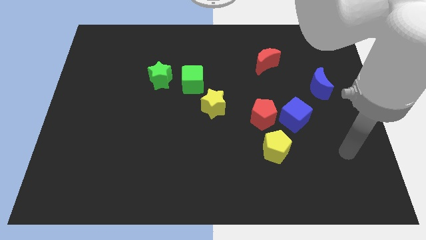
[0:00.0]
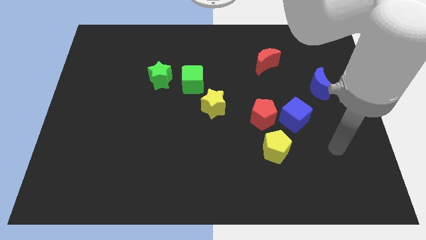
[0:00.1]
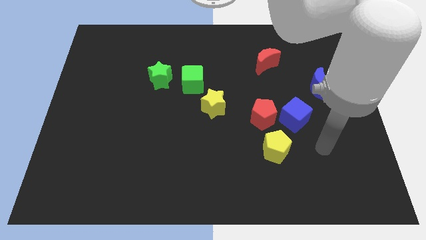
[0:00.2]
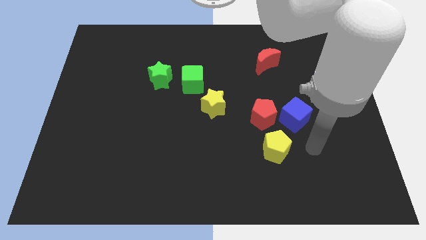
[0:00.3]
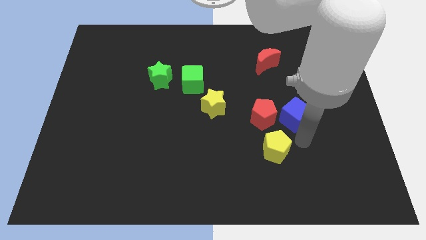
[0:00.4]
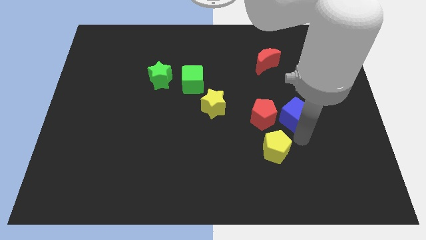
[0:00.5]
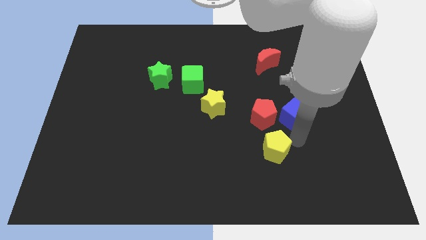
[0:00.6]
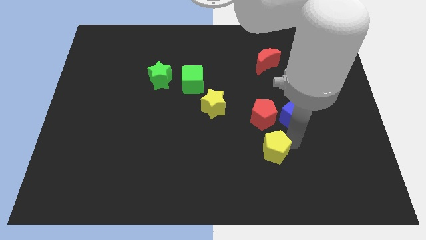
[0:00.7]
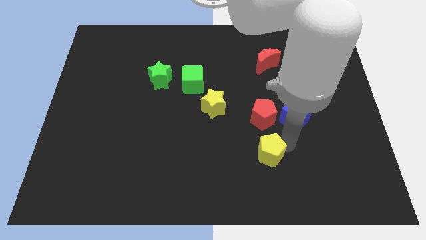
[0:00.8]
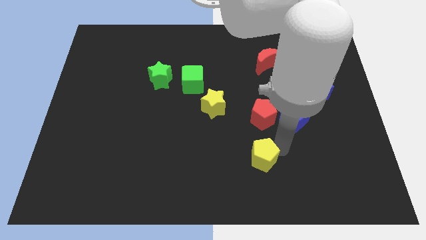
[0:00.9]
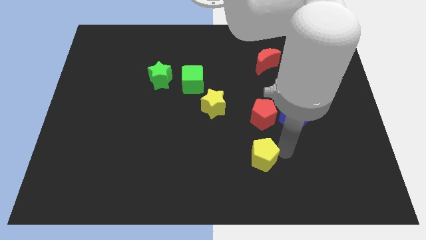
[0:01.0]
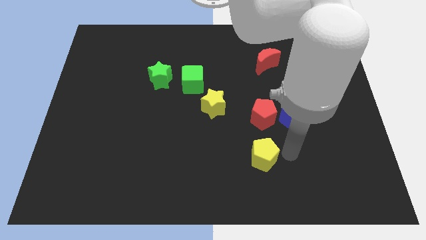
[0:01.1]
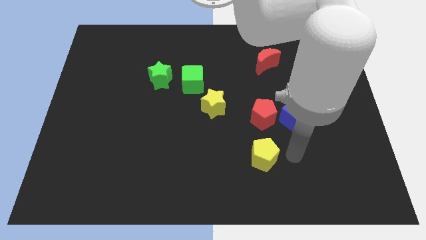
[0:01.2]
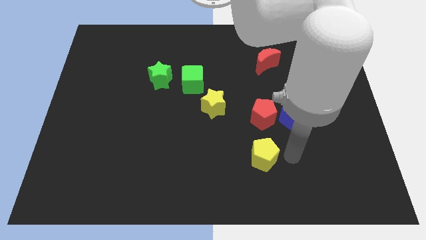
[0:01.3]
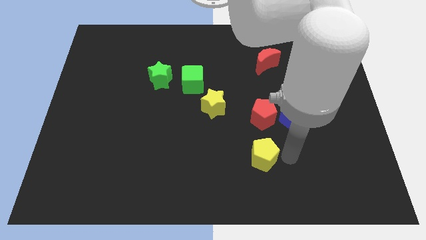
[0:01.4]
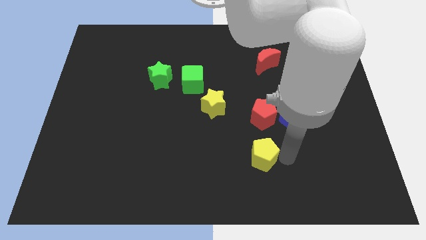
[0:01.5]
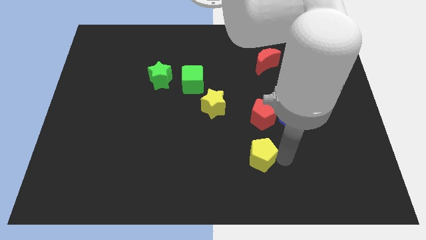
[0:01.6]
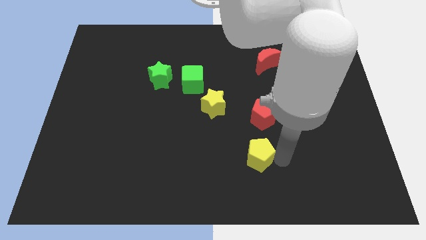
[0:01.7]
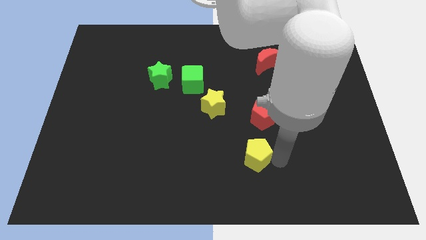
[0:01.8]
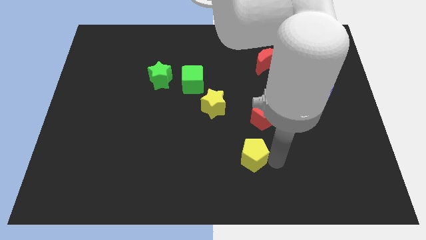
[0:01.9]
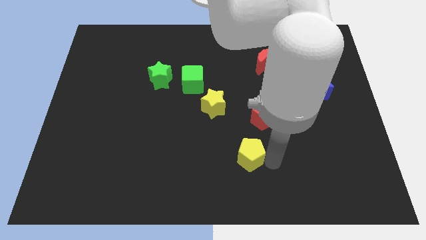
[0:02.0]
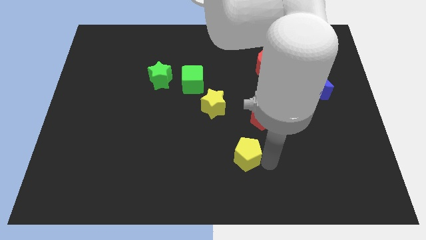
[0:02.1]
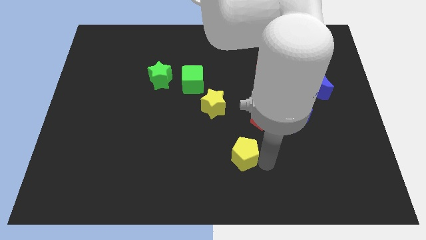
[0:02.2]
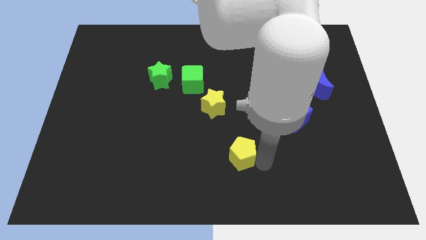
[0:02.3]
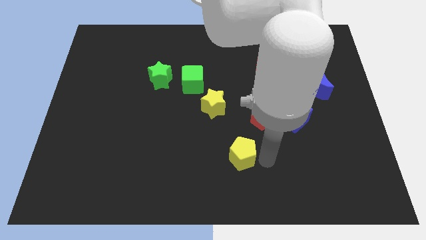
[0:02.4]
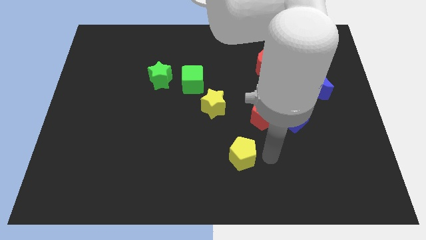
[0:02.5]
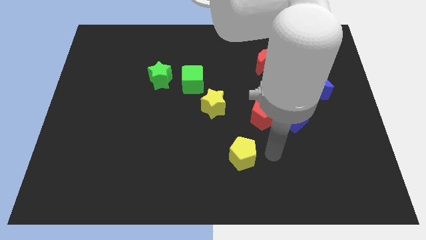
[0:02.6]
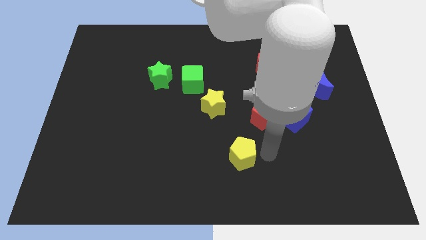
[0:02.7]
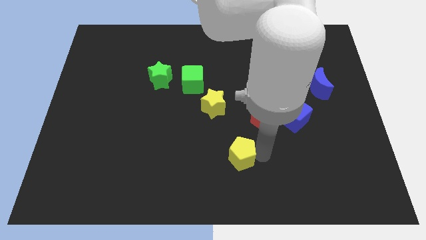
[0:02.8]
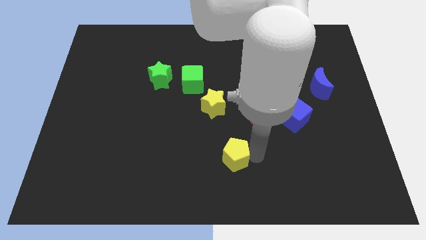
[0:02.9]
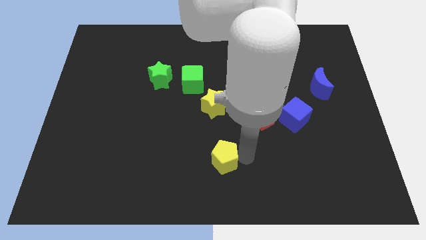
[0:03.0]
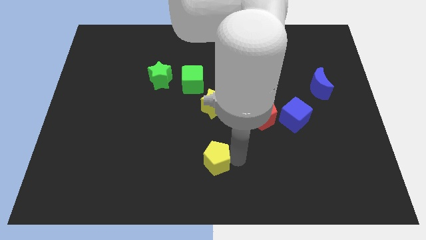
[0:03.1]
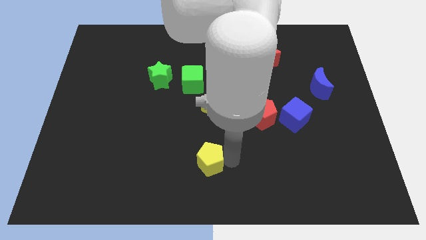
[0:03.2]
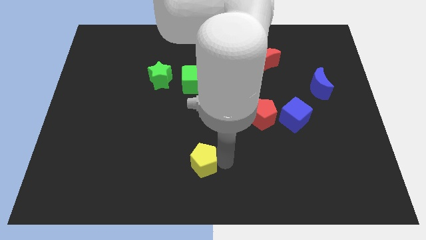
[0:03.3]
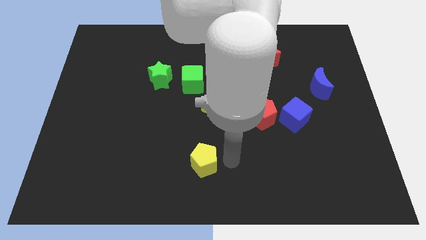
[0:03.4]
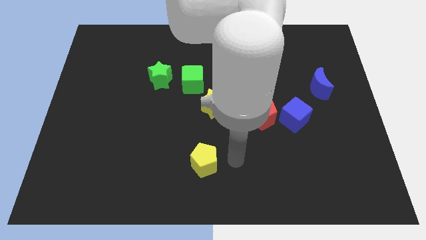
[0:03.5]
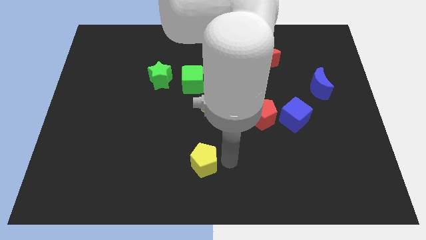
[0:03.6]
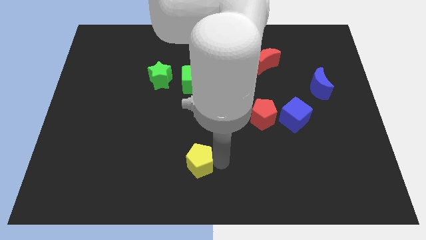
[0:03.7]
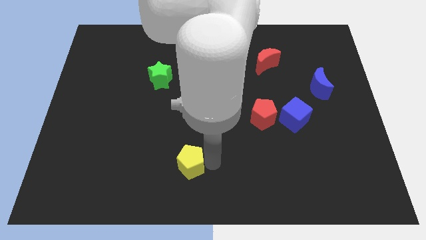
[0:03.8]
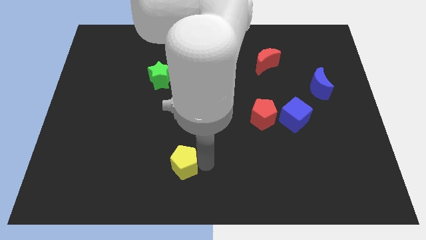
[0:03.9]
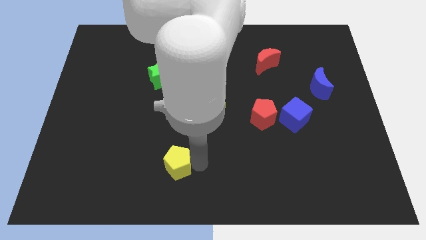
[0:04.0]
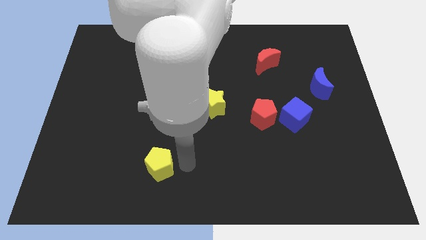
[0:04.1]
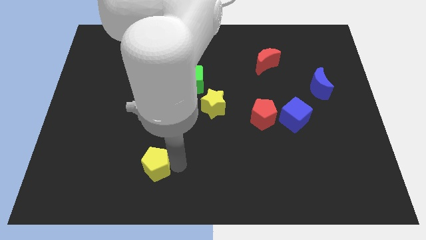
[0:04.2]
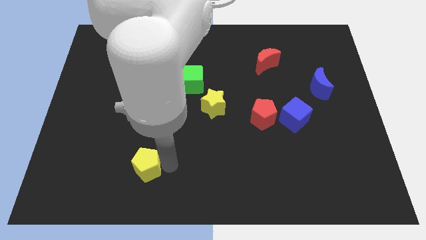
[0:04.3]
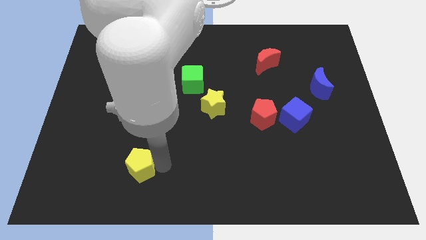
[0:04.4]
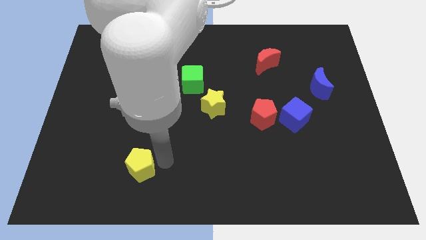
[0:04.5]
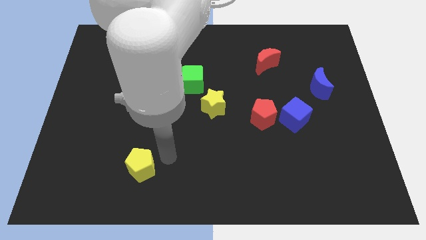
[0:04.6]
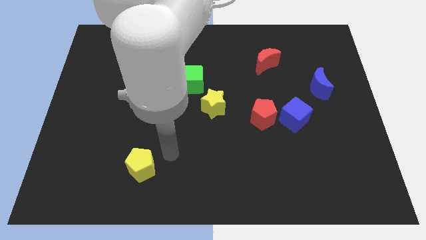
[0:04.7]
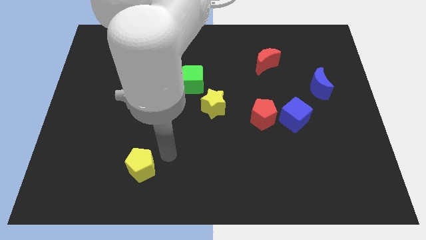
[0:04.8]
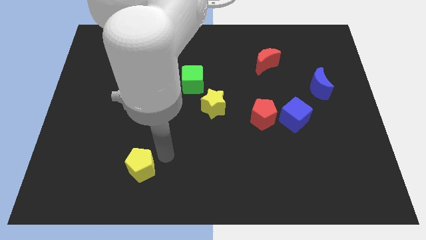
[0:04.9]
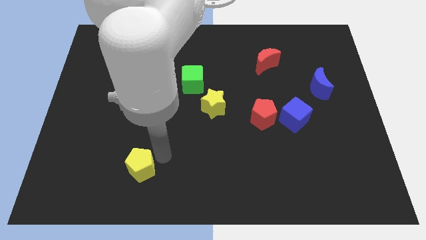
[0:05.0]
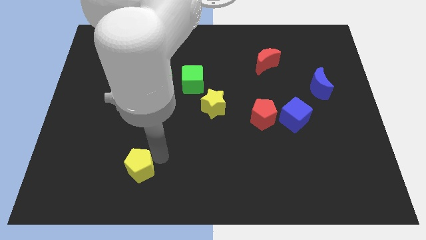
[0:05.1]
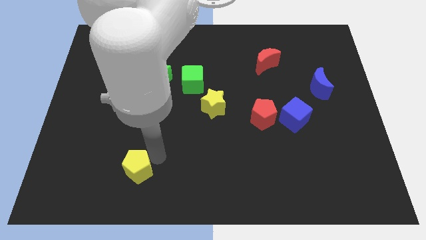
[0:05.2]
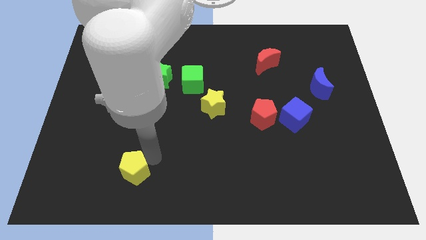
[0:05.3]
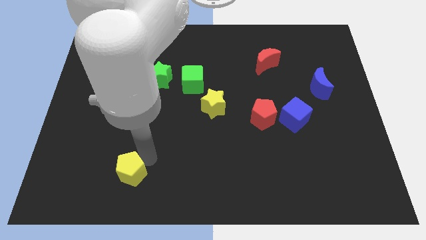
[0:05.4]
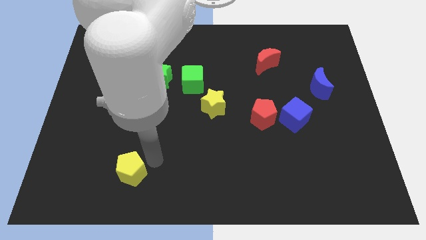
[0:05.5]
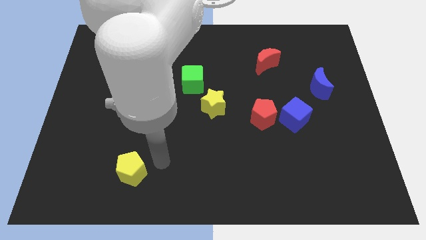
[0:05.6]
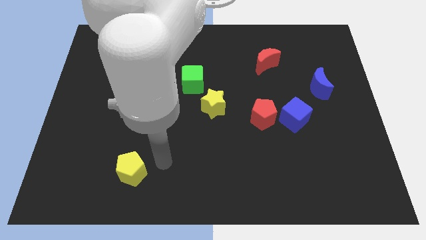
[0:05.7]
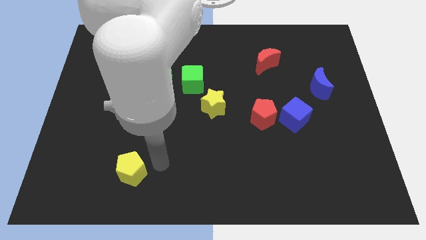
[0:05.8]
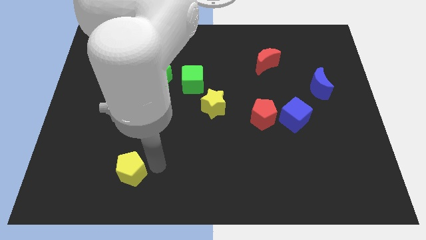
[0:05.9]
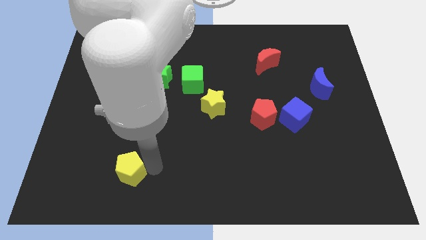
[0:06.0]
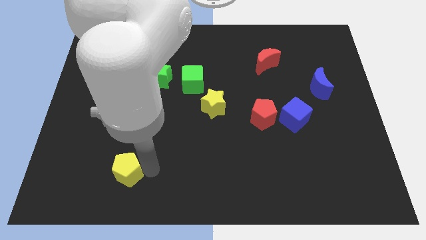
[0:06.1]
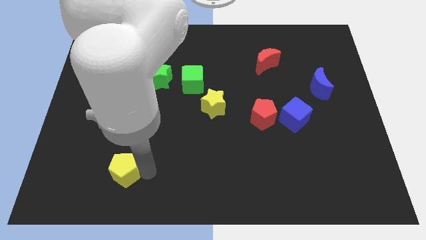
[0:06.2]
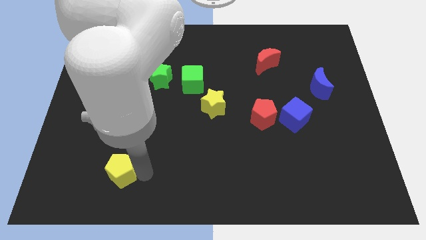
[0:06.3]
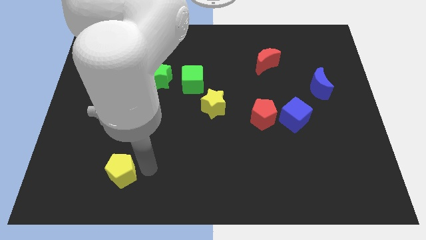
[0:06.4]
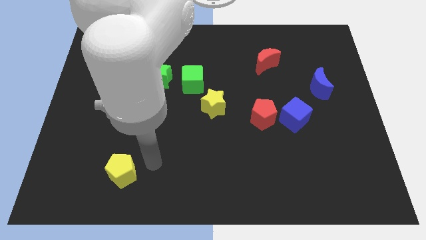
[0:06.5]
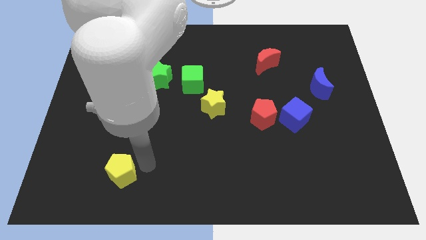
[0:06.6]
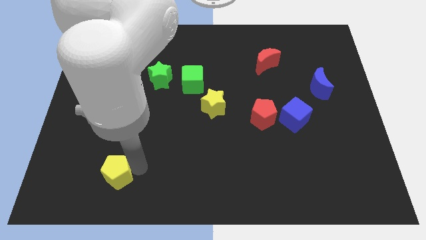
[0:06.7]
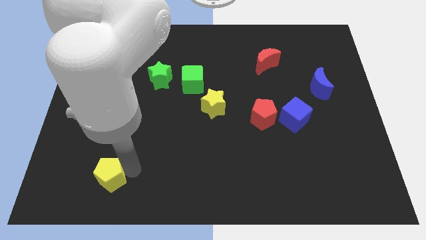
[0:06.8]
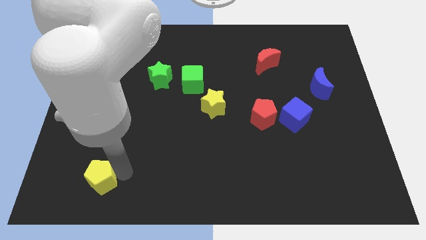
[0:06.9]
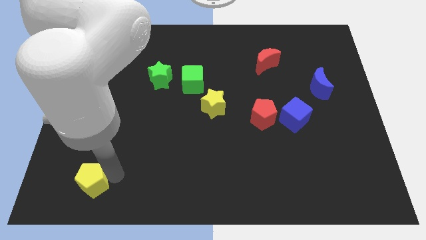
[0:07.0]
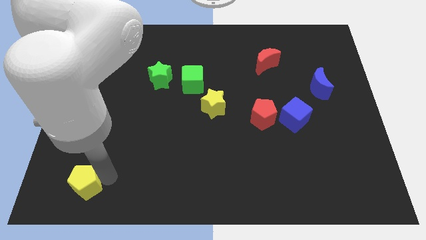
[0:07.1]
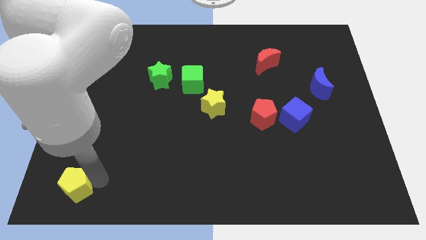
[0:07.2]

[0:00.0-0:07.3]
put the yellow pentagon to the bottom left of the board
